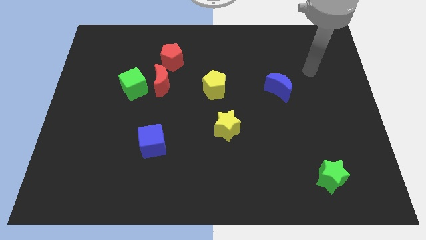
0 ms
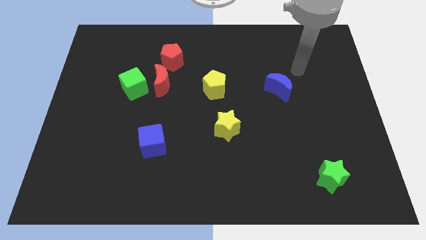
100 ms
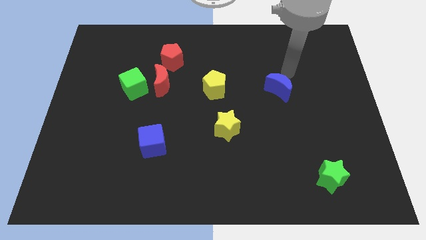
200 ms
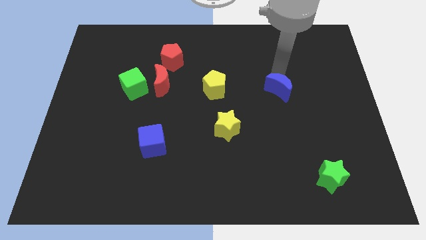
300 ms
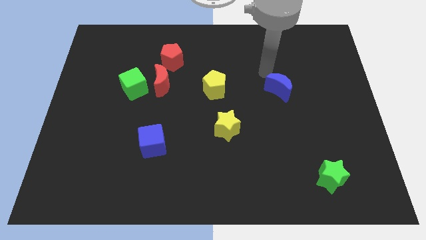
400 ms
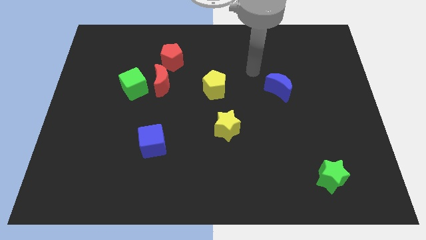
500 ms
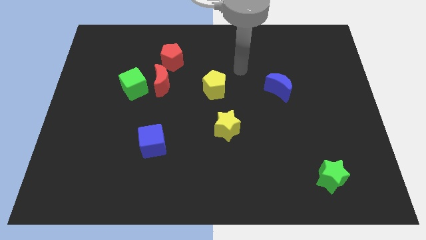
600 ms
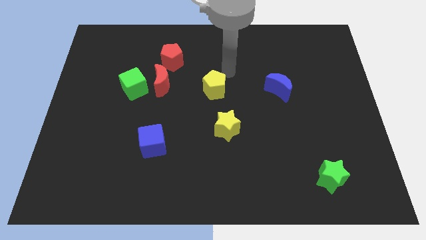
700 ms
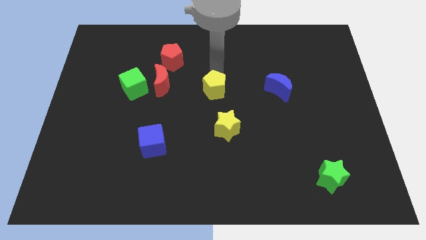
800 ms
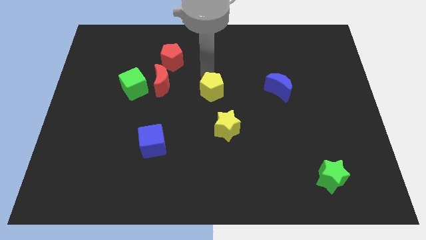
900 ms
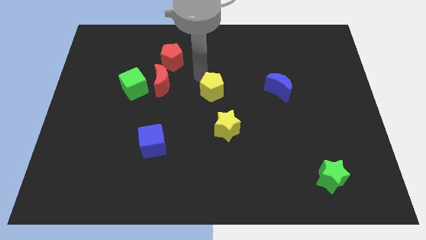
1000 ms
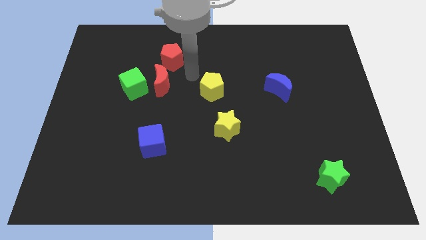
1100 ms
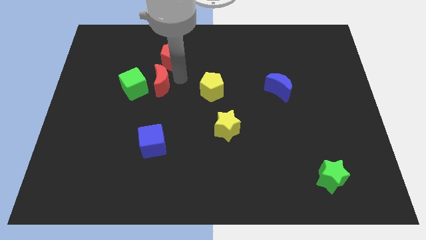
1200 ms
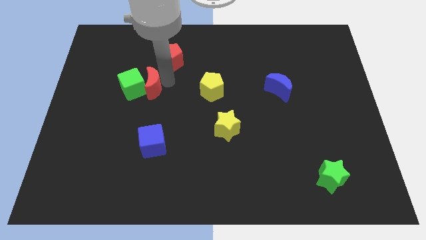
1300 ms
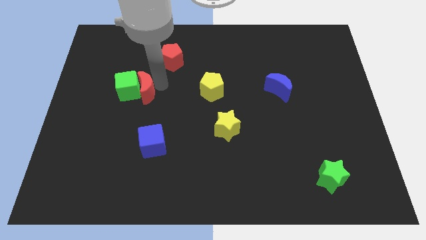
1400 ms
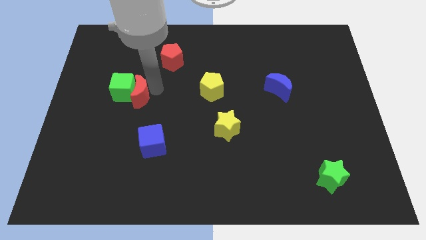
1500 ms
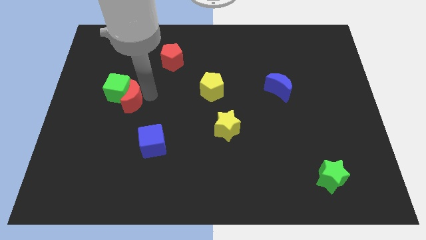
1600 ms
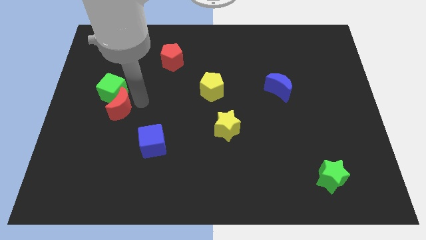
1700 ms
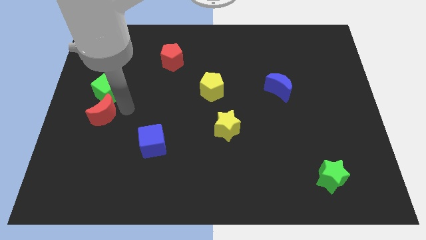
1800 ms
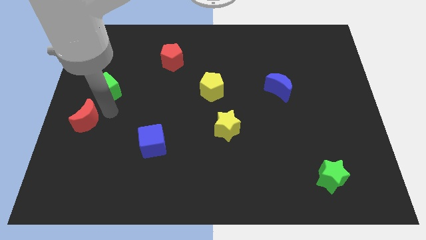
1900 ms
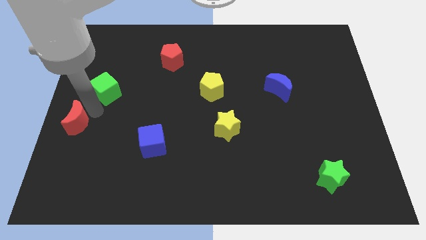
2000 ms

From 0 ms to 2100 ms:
move the green cube away from the red moon

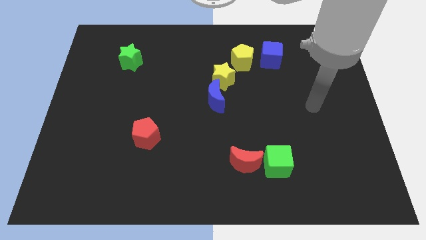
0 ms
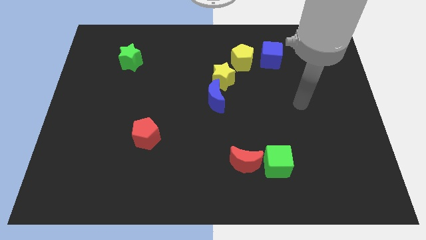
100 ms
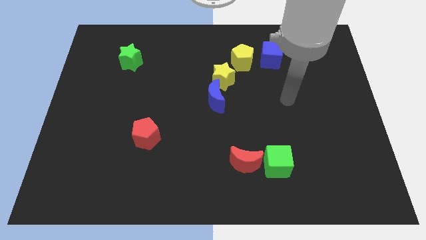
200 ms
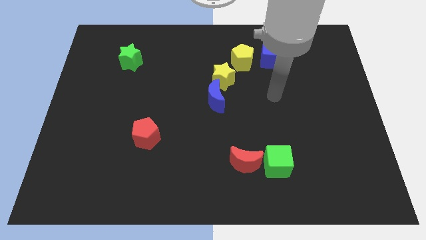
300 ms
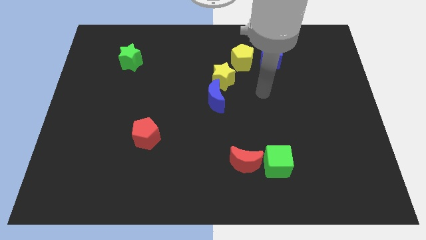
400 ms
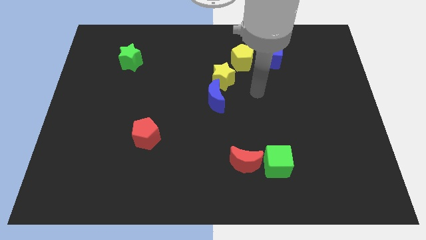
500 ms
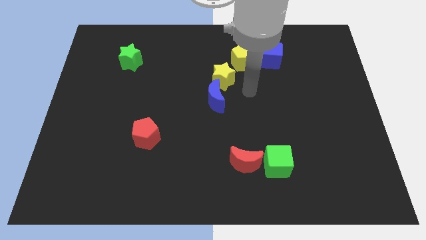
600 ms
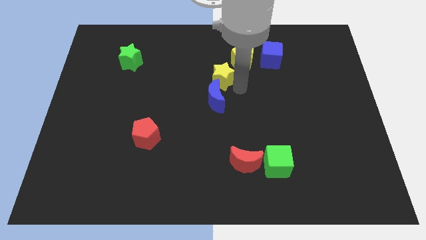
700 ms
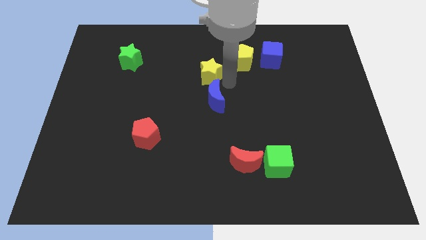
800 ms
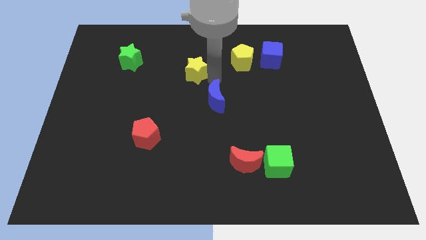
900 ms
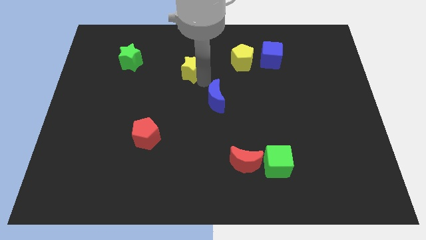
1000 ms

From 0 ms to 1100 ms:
pull the blue moon apart from the yellow star

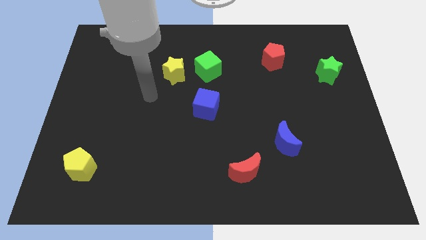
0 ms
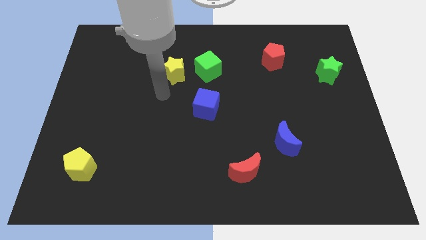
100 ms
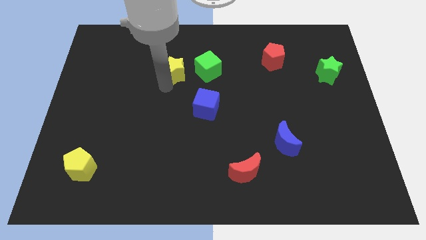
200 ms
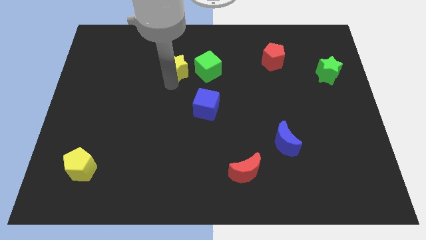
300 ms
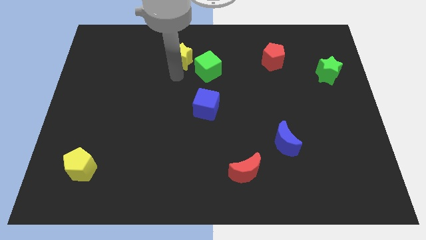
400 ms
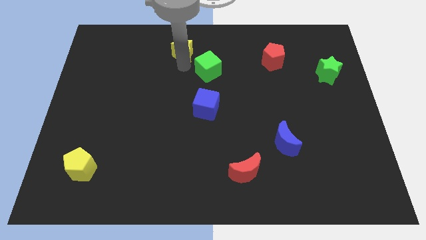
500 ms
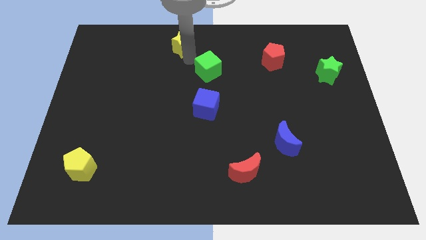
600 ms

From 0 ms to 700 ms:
move the green cube away from the yellow star

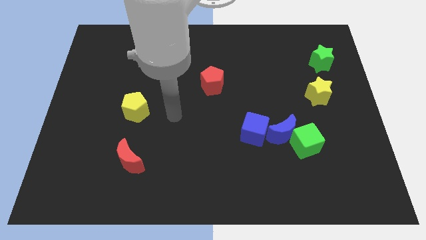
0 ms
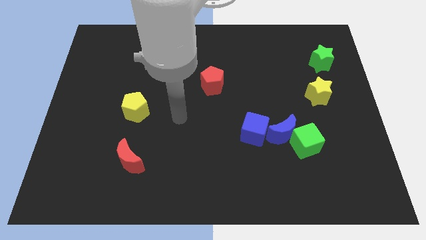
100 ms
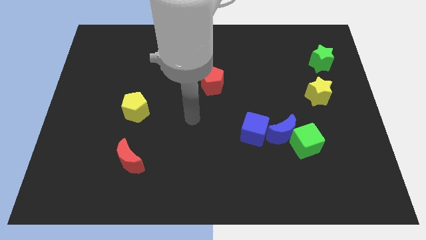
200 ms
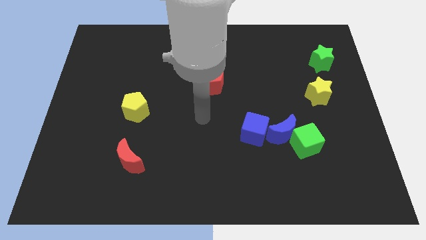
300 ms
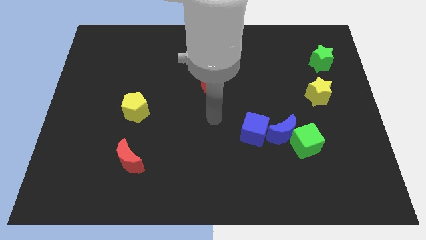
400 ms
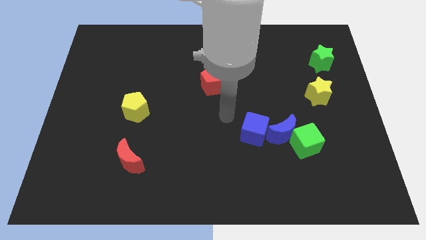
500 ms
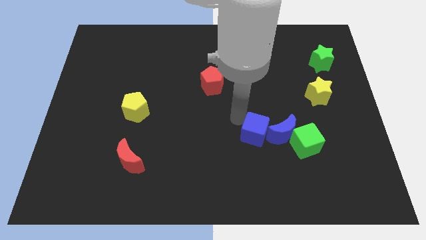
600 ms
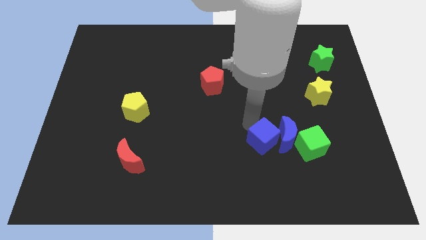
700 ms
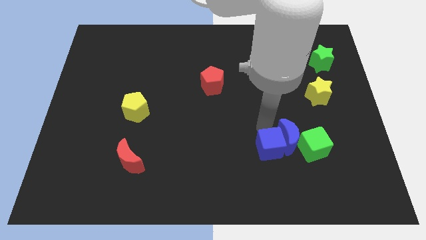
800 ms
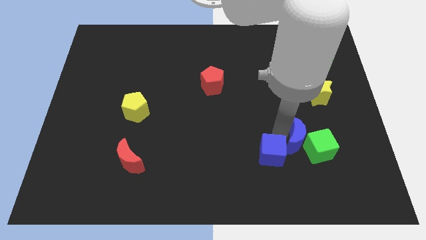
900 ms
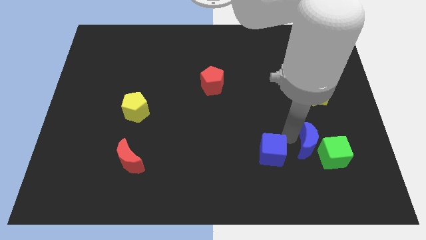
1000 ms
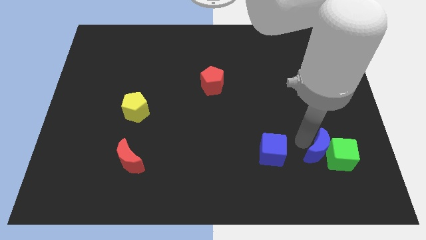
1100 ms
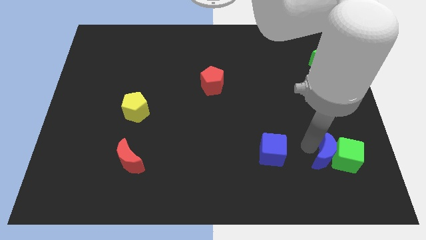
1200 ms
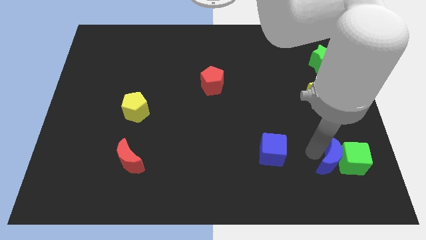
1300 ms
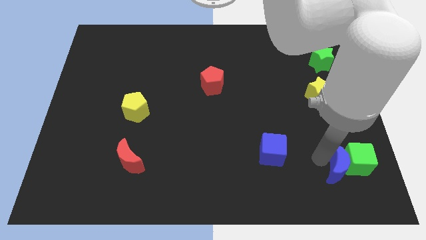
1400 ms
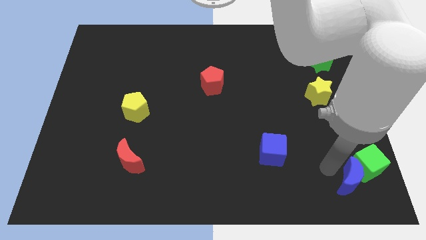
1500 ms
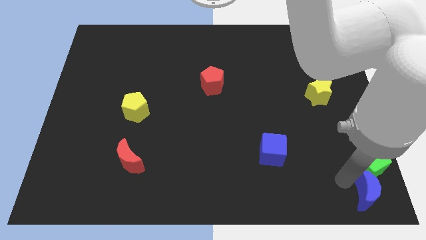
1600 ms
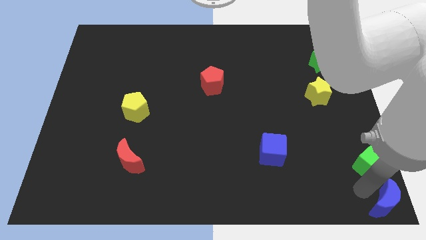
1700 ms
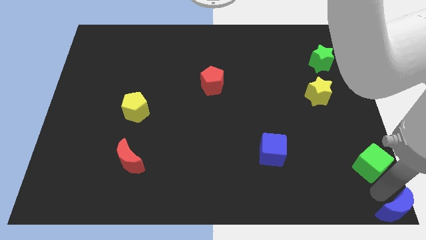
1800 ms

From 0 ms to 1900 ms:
pull the green cube apart from the blue moon

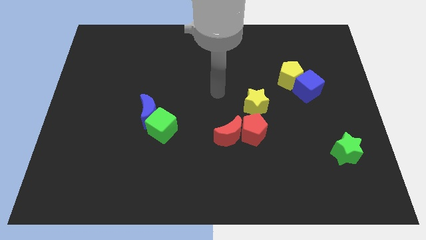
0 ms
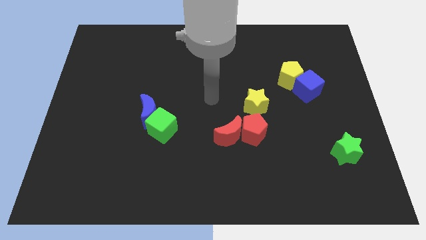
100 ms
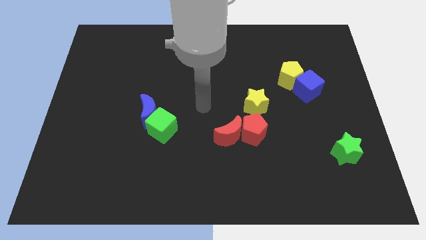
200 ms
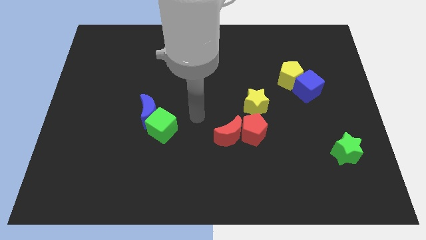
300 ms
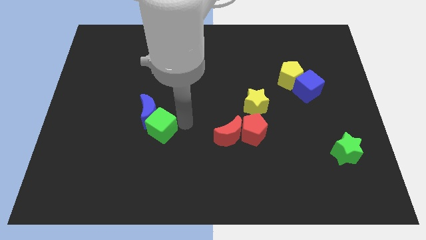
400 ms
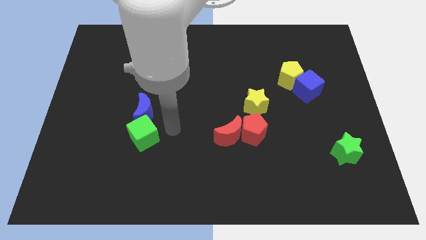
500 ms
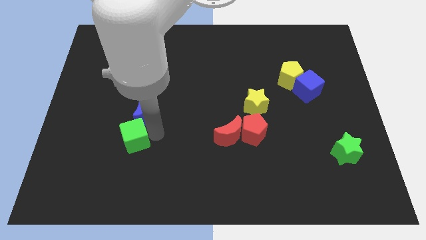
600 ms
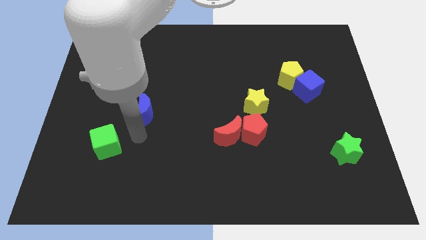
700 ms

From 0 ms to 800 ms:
move the blue moon away from the green cube

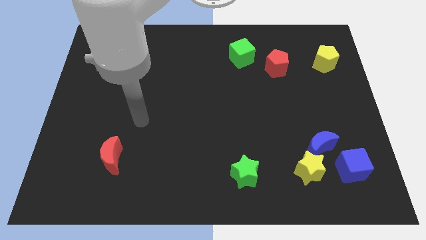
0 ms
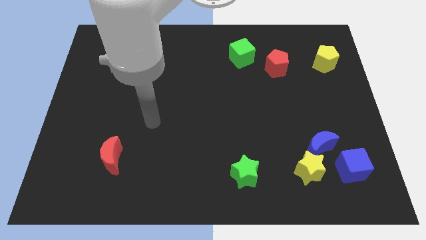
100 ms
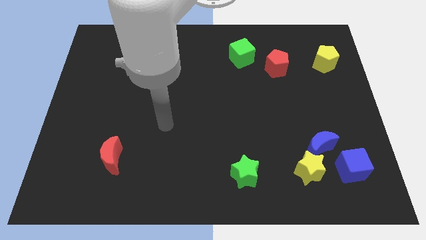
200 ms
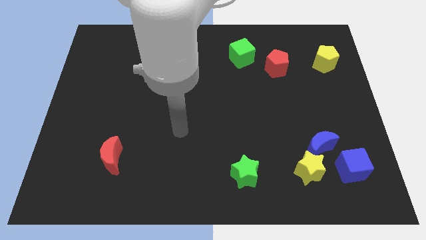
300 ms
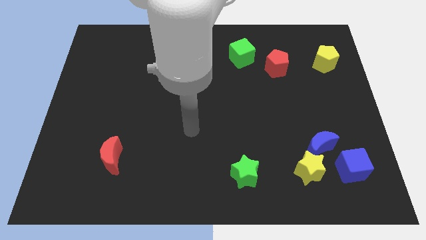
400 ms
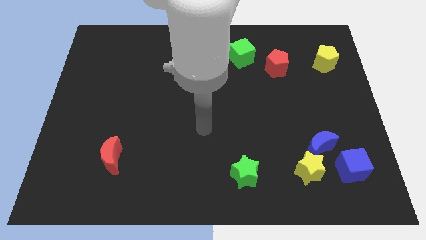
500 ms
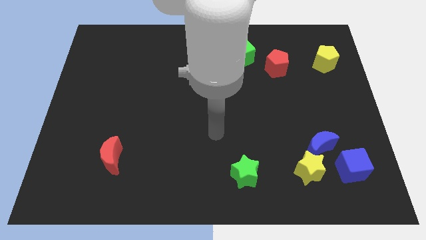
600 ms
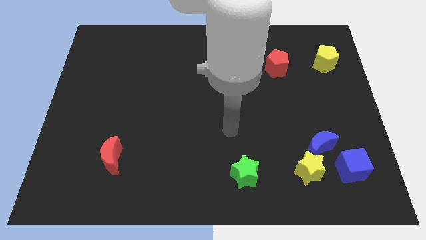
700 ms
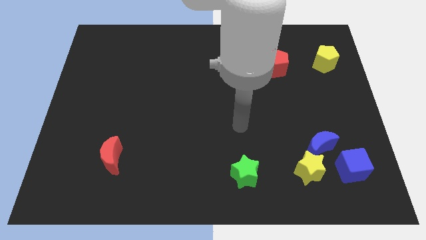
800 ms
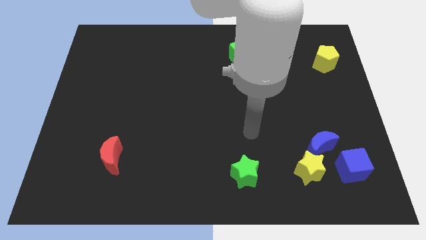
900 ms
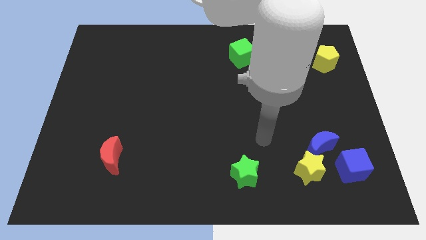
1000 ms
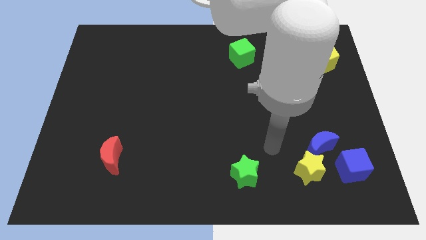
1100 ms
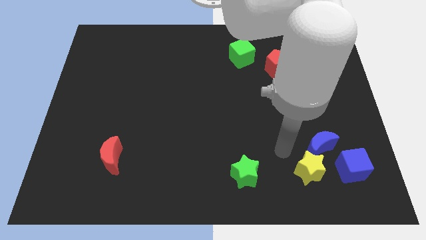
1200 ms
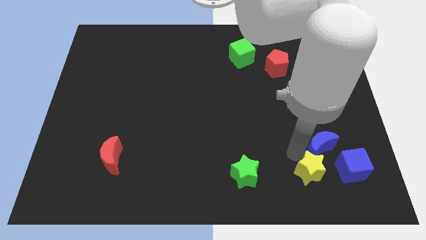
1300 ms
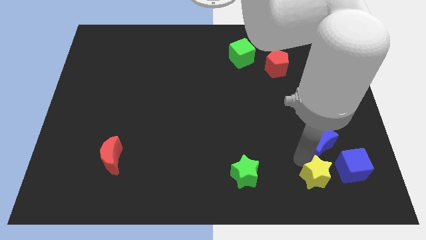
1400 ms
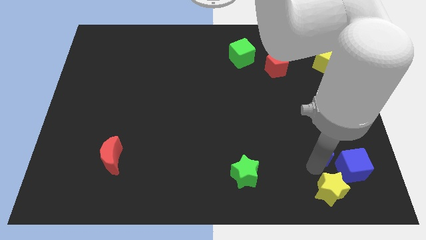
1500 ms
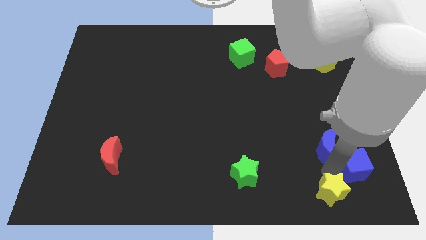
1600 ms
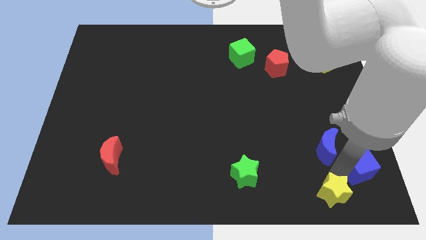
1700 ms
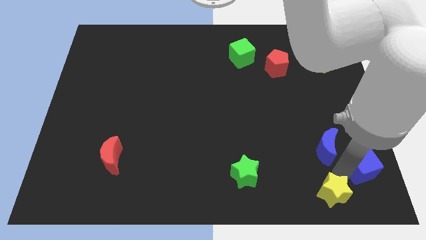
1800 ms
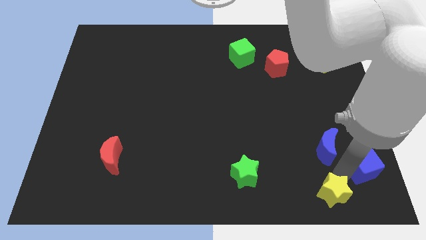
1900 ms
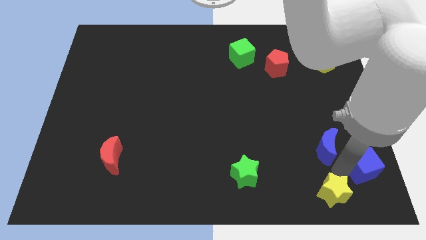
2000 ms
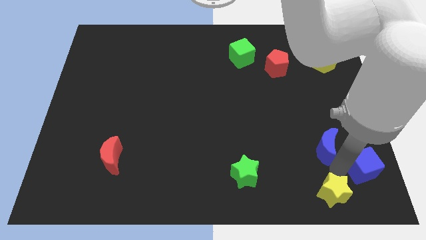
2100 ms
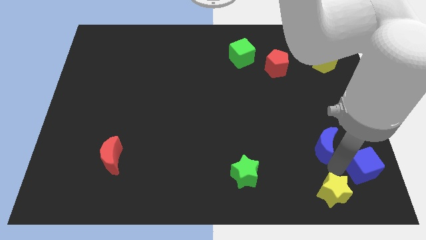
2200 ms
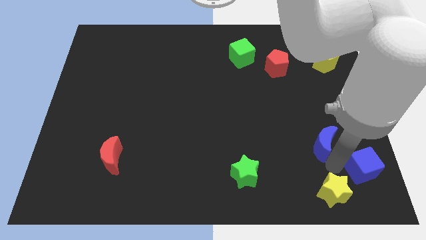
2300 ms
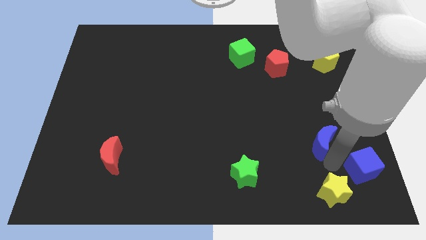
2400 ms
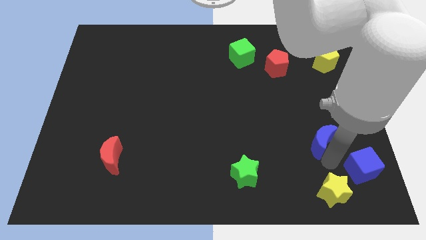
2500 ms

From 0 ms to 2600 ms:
pull the blue moon apart from the yellow star and blue cube
